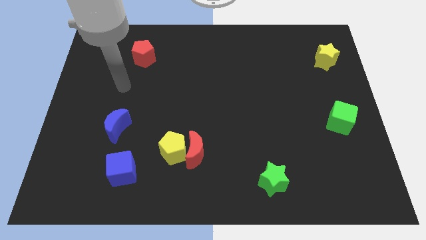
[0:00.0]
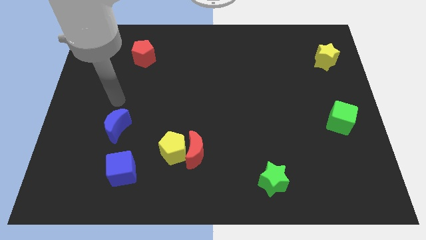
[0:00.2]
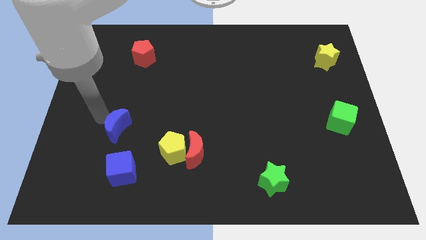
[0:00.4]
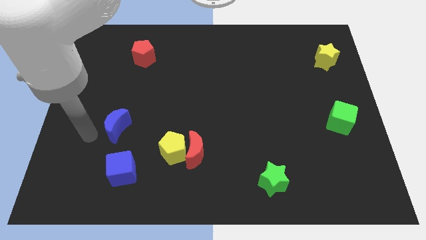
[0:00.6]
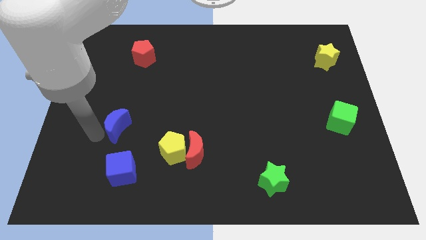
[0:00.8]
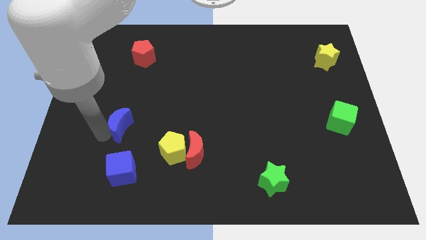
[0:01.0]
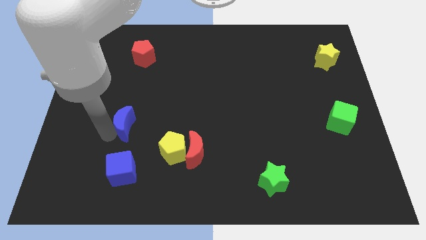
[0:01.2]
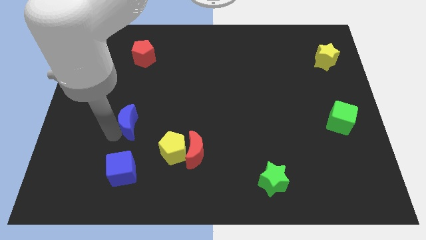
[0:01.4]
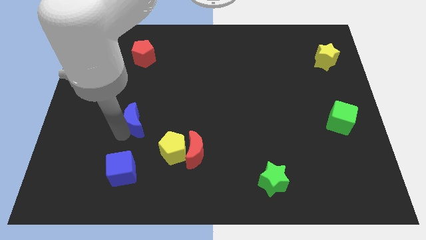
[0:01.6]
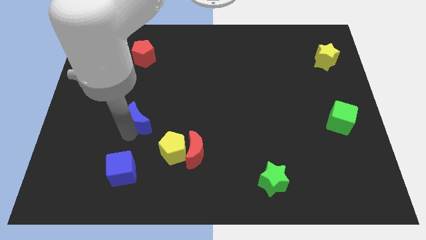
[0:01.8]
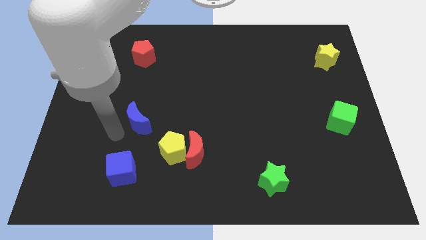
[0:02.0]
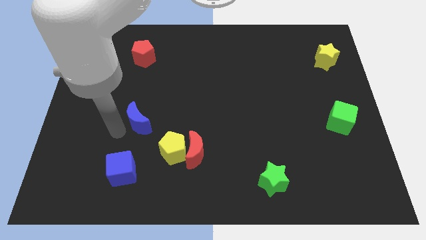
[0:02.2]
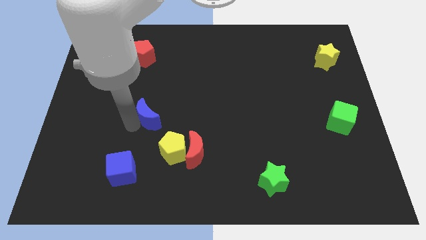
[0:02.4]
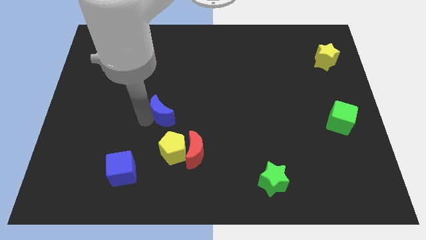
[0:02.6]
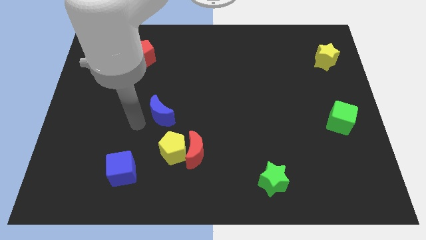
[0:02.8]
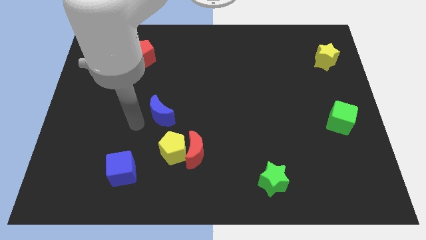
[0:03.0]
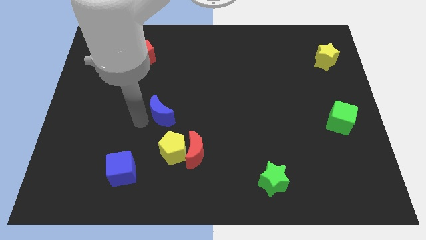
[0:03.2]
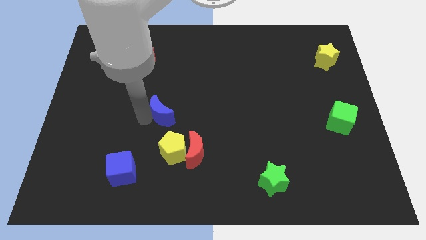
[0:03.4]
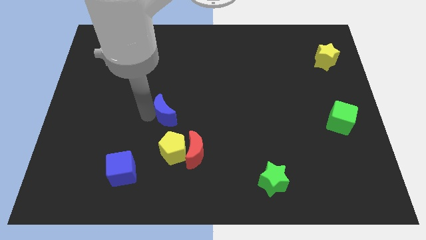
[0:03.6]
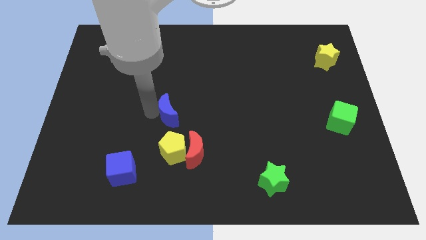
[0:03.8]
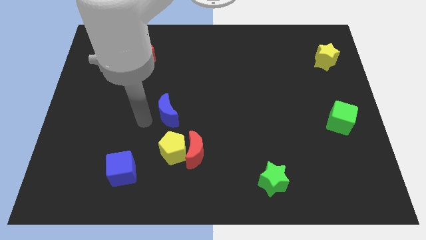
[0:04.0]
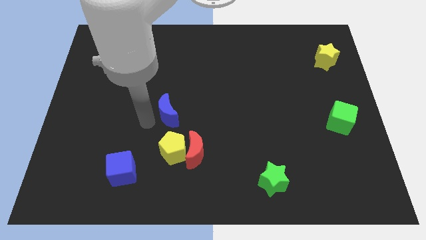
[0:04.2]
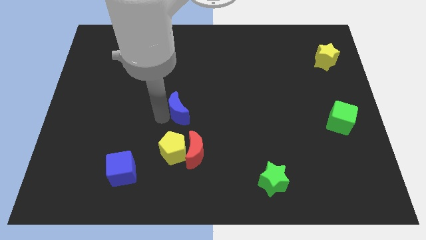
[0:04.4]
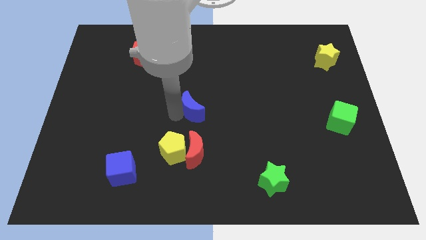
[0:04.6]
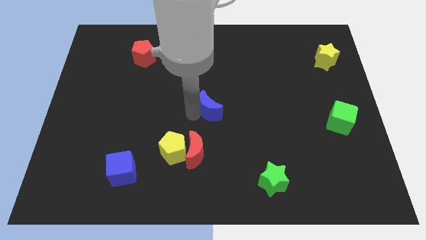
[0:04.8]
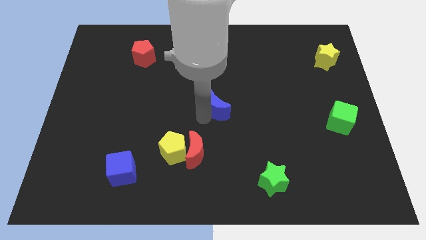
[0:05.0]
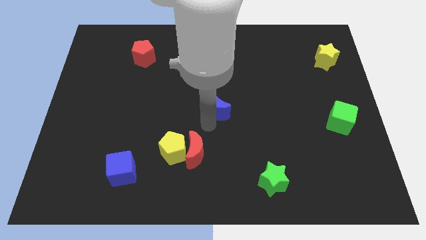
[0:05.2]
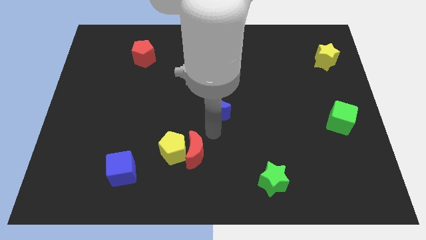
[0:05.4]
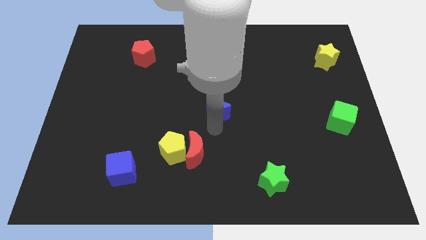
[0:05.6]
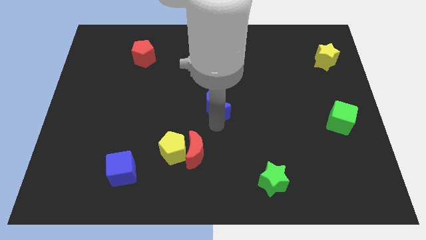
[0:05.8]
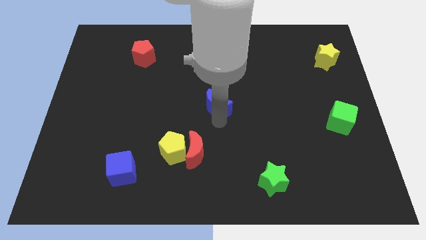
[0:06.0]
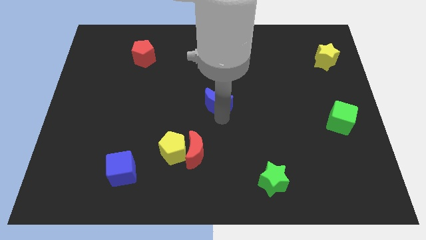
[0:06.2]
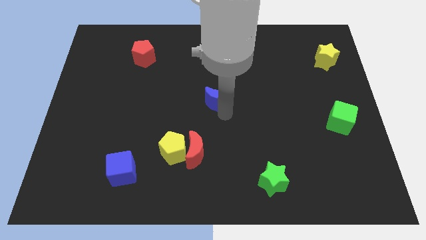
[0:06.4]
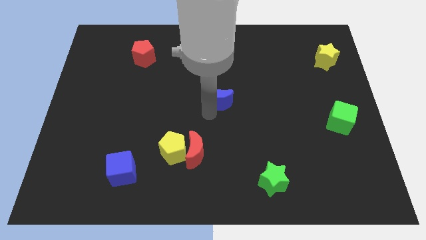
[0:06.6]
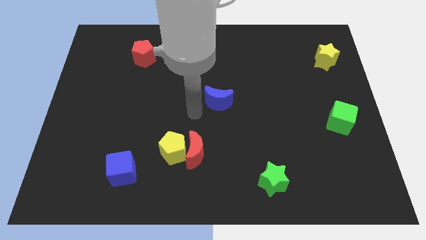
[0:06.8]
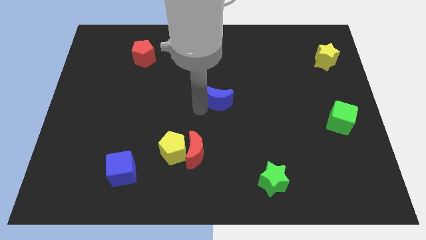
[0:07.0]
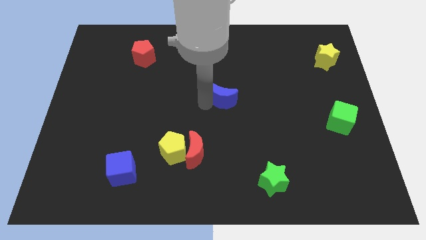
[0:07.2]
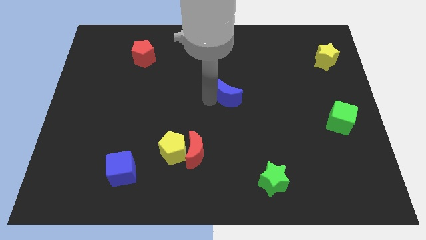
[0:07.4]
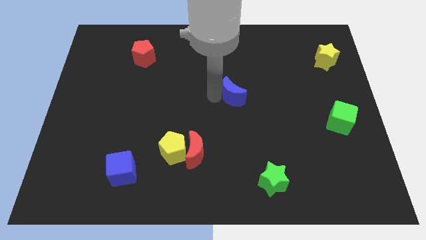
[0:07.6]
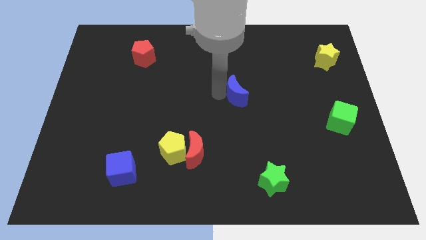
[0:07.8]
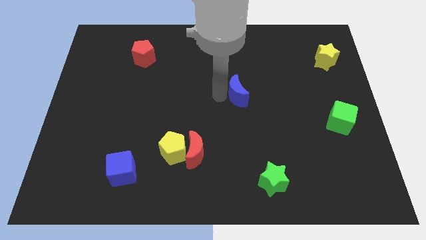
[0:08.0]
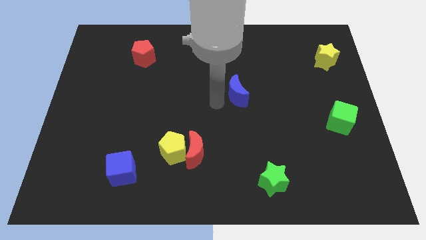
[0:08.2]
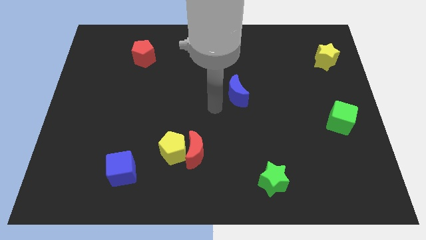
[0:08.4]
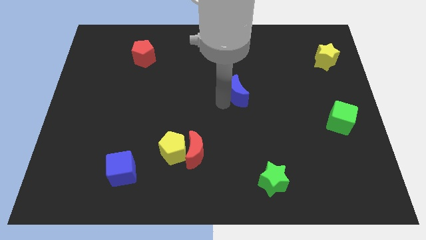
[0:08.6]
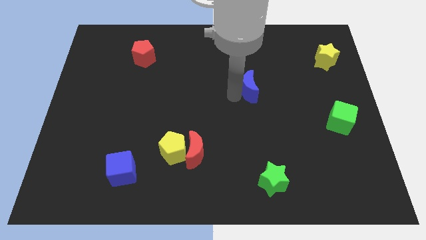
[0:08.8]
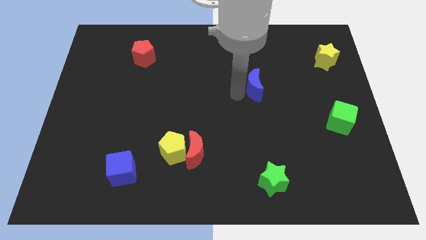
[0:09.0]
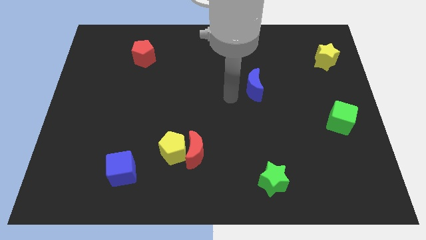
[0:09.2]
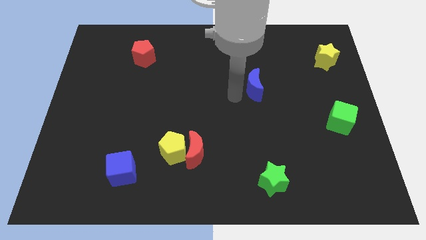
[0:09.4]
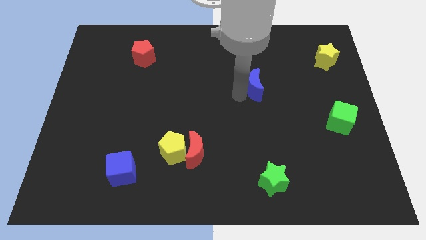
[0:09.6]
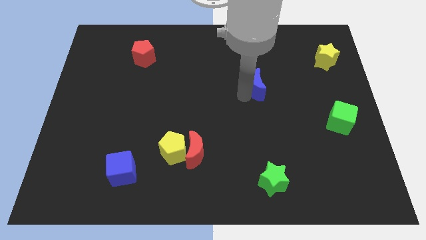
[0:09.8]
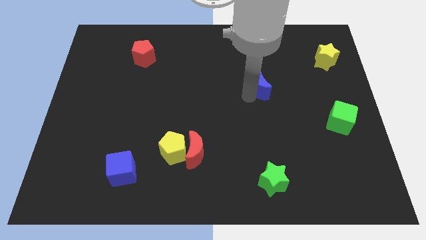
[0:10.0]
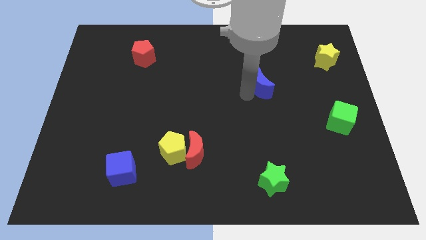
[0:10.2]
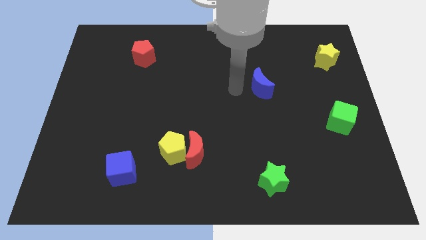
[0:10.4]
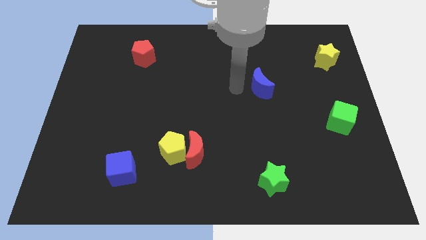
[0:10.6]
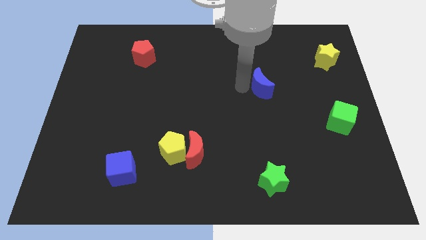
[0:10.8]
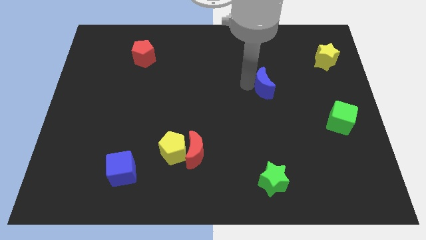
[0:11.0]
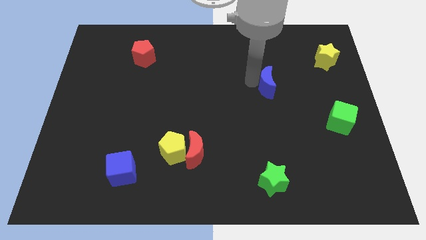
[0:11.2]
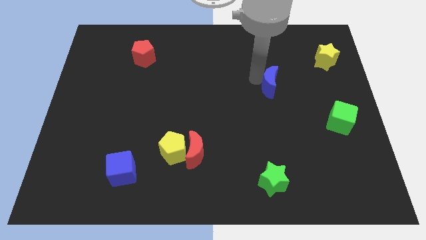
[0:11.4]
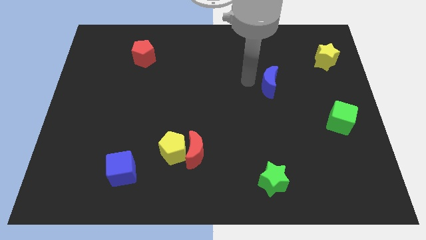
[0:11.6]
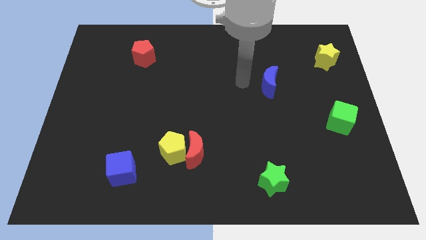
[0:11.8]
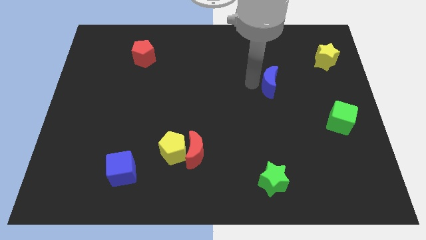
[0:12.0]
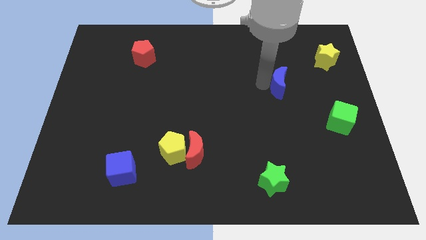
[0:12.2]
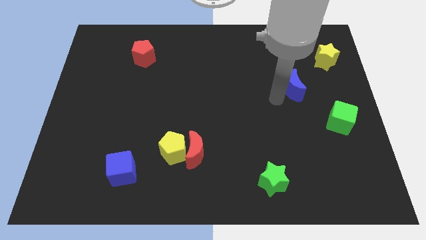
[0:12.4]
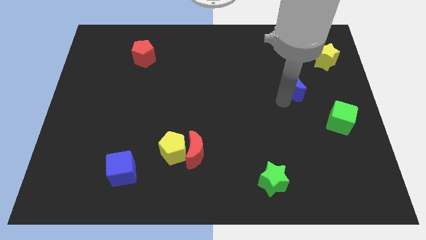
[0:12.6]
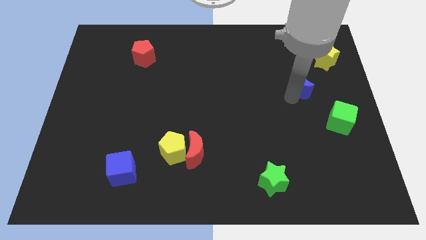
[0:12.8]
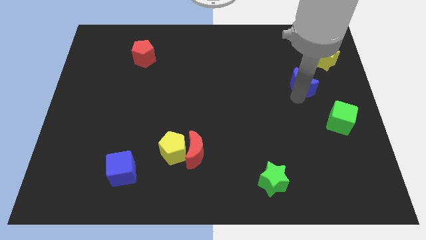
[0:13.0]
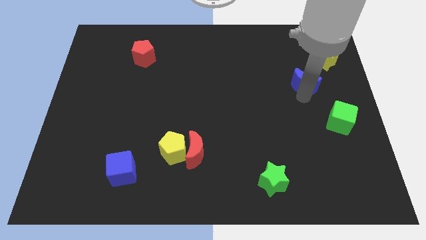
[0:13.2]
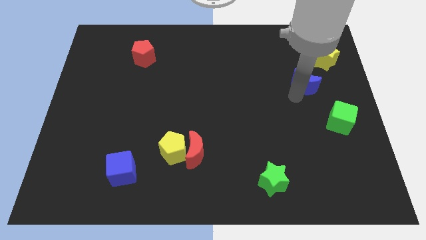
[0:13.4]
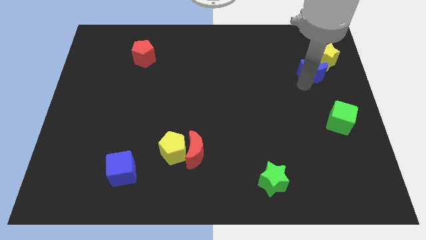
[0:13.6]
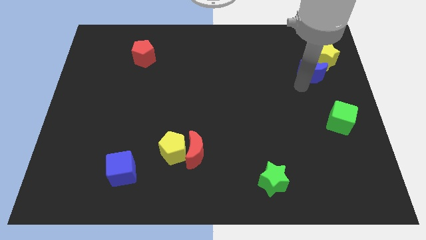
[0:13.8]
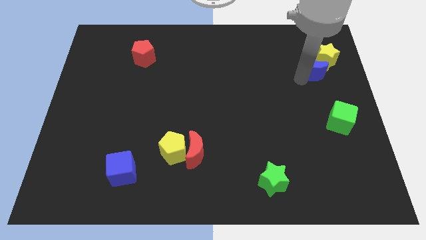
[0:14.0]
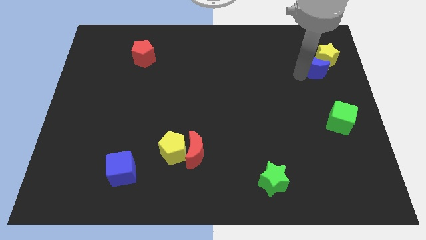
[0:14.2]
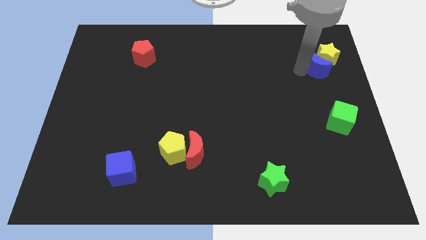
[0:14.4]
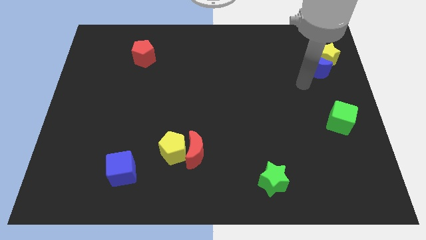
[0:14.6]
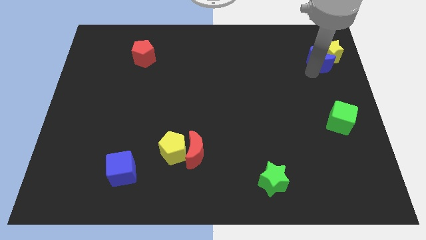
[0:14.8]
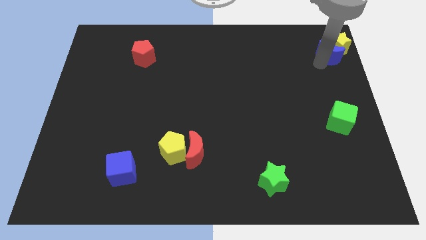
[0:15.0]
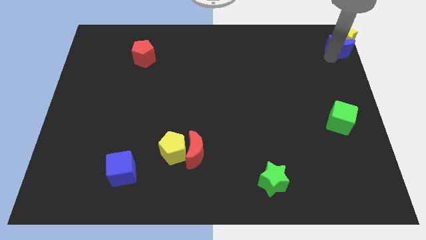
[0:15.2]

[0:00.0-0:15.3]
put the blue moon to the top right of the board
